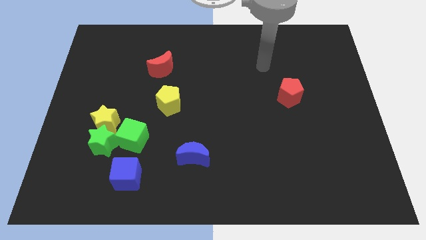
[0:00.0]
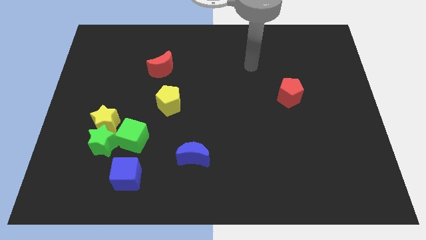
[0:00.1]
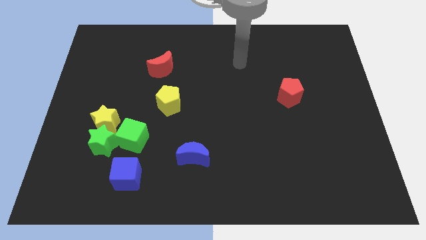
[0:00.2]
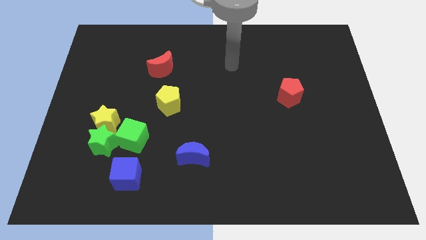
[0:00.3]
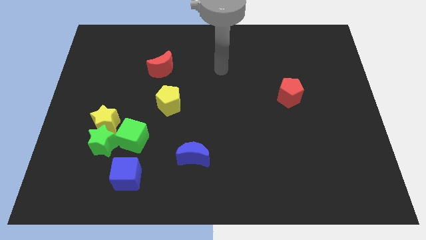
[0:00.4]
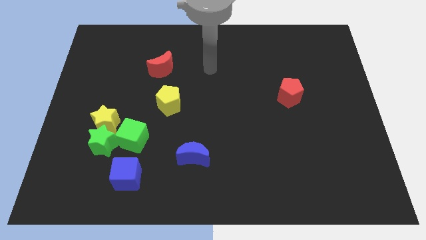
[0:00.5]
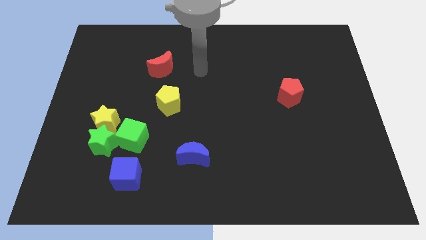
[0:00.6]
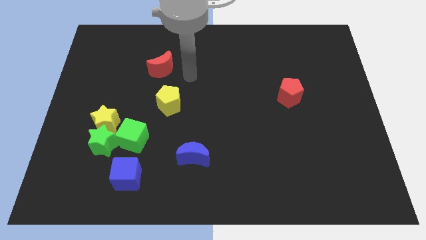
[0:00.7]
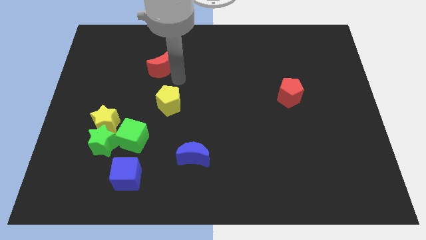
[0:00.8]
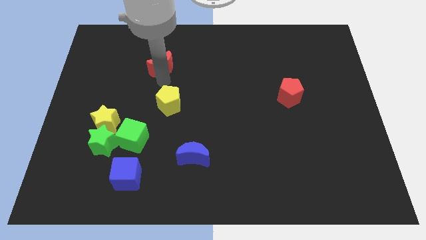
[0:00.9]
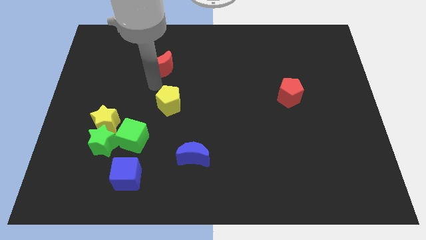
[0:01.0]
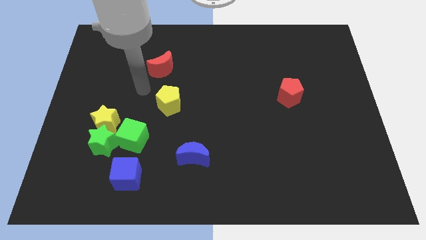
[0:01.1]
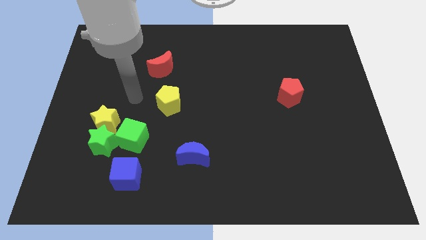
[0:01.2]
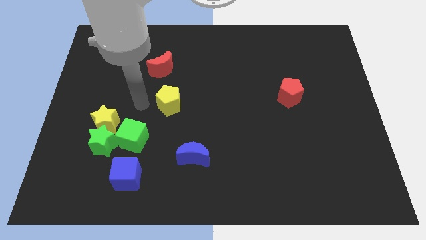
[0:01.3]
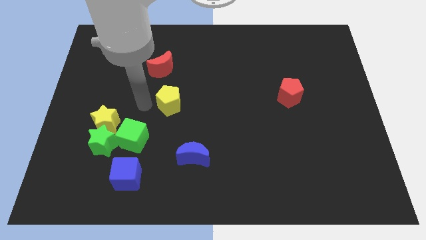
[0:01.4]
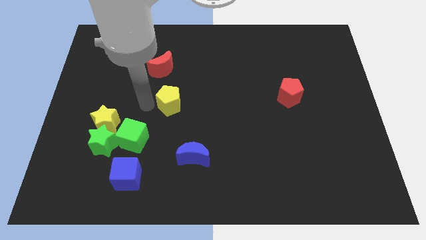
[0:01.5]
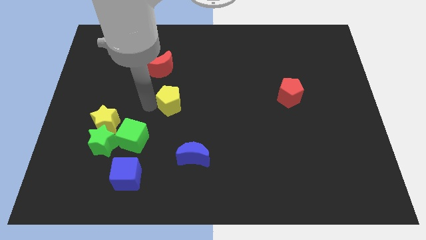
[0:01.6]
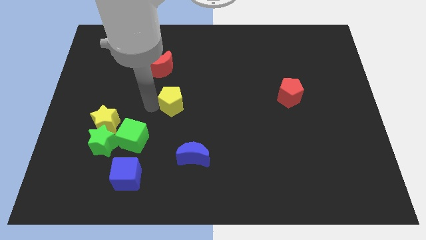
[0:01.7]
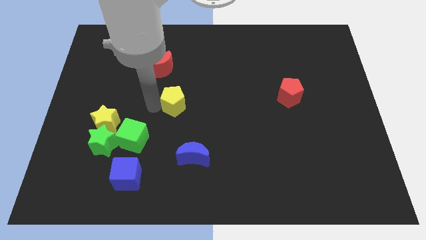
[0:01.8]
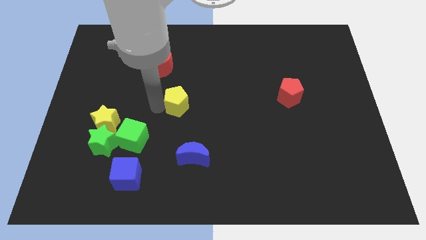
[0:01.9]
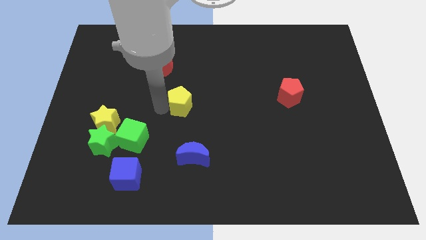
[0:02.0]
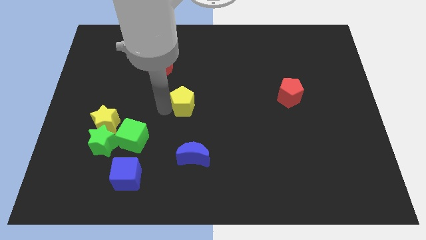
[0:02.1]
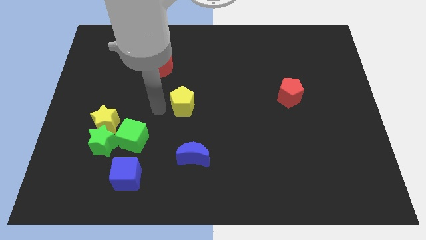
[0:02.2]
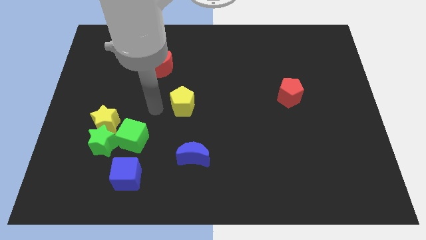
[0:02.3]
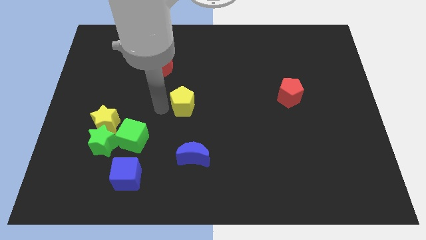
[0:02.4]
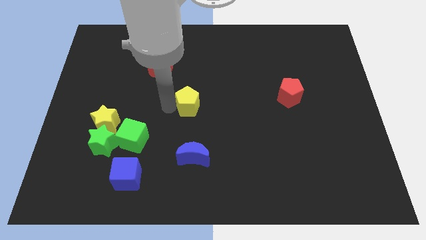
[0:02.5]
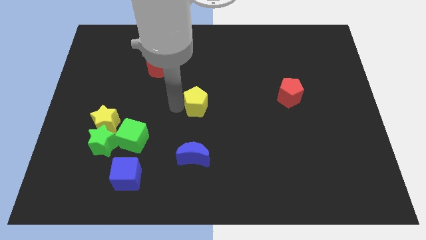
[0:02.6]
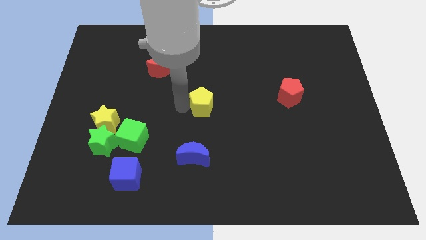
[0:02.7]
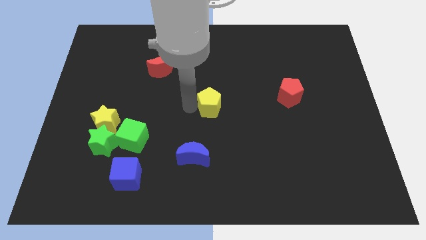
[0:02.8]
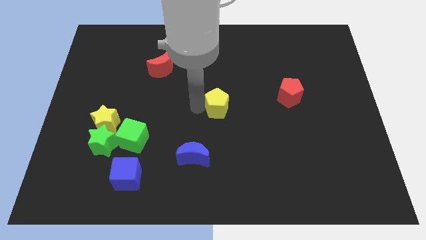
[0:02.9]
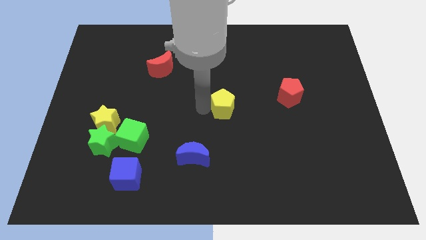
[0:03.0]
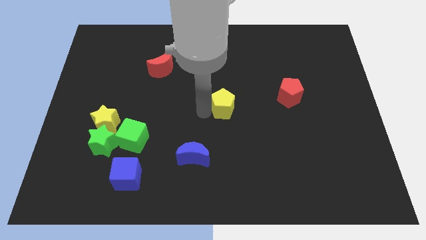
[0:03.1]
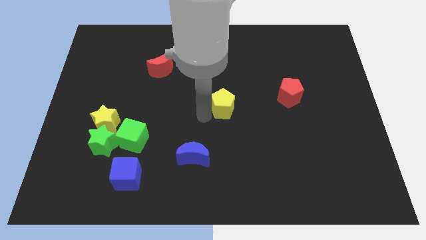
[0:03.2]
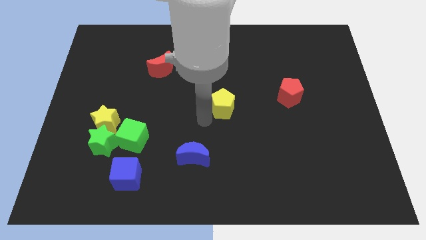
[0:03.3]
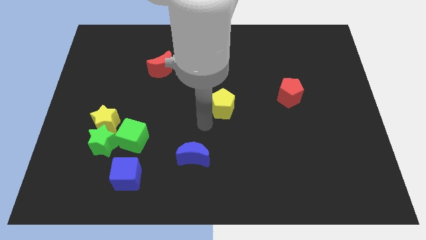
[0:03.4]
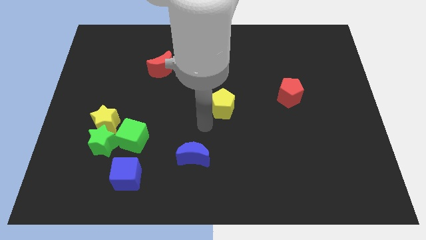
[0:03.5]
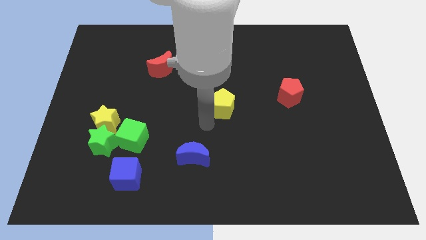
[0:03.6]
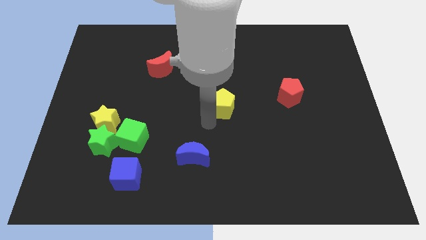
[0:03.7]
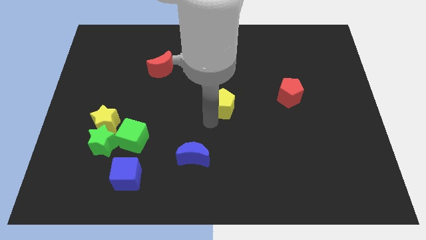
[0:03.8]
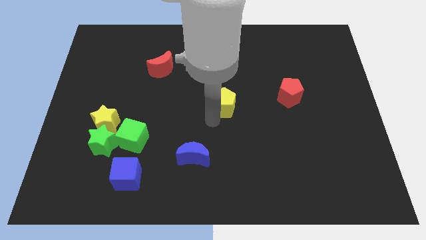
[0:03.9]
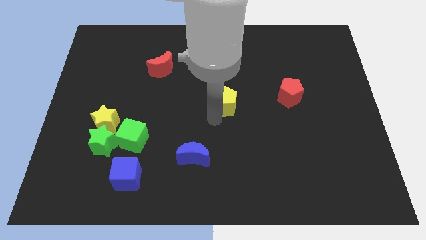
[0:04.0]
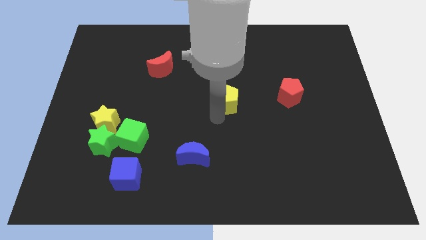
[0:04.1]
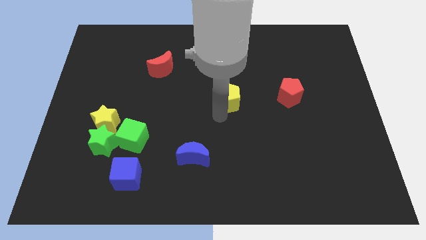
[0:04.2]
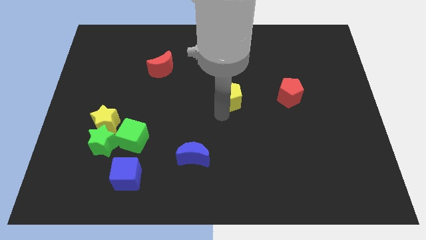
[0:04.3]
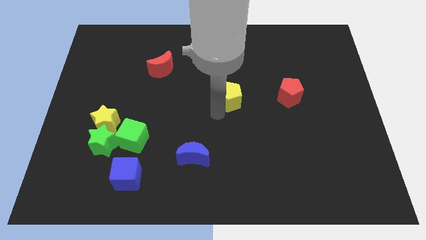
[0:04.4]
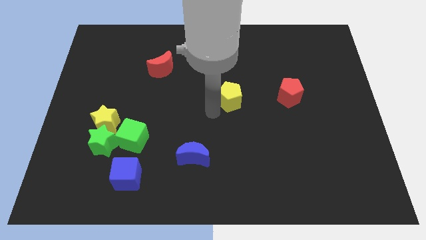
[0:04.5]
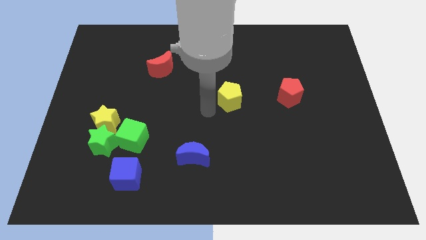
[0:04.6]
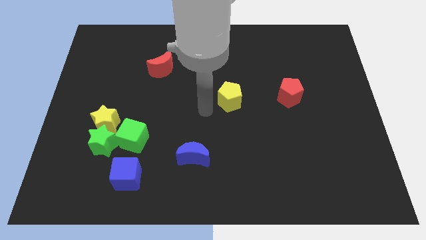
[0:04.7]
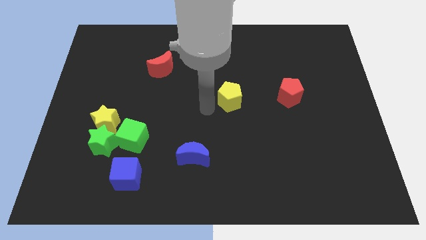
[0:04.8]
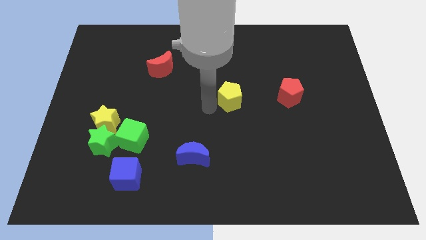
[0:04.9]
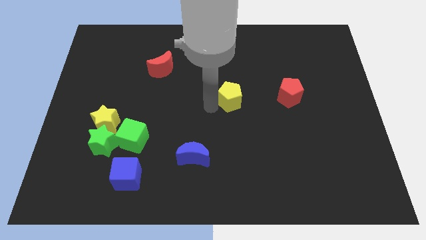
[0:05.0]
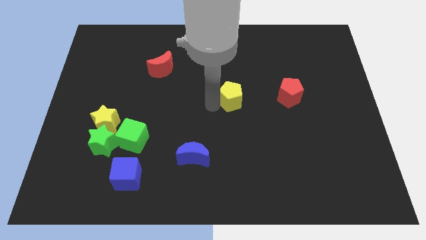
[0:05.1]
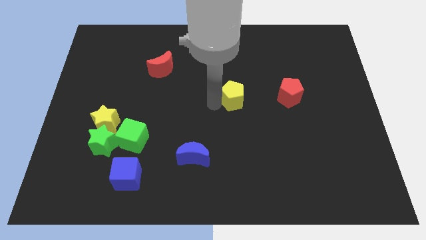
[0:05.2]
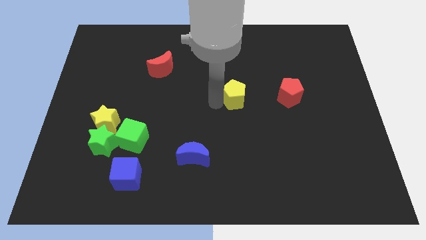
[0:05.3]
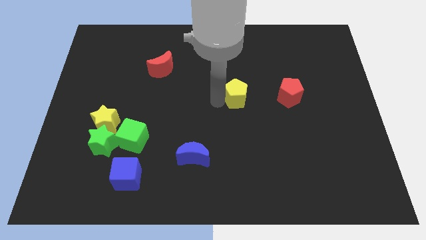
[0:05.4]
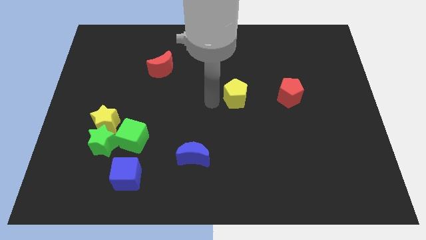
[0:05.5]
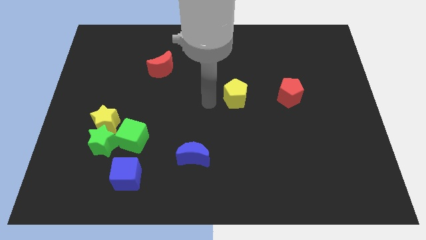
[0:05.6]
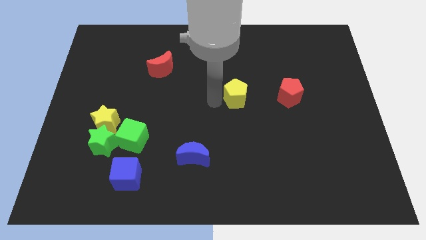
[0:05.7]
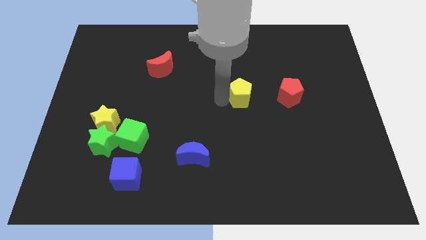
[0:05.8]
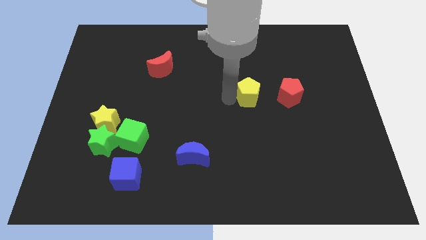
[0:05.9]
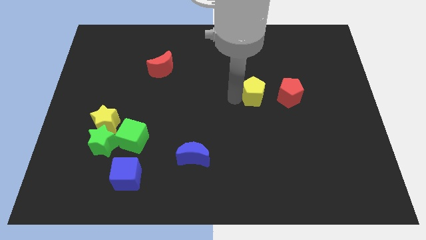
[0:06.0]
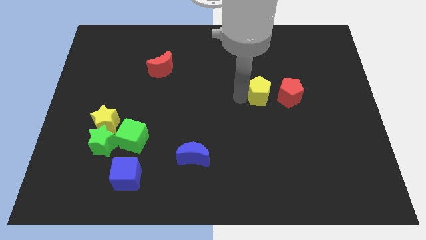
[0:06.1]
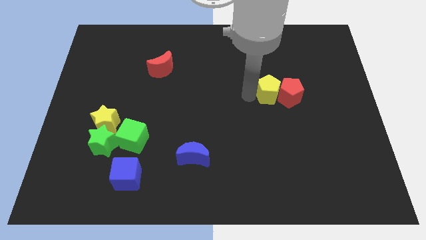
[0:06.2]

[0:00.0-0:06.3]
slide the yellow pentagon next to the red pentagon
